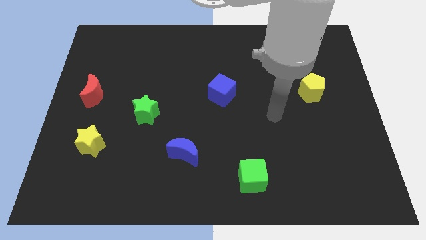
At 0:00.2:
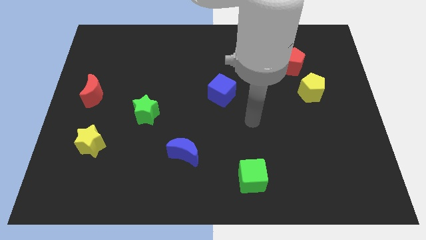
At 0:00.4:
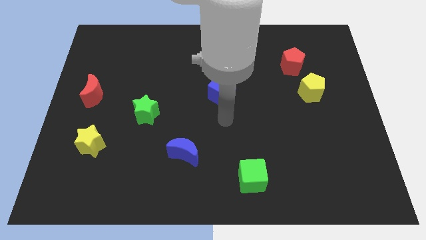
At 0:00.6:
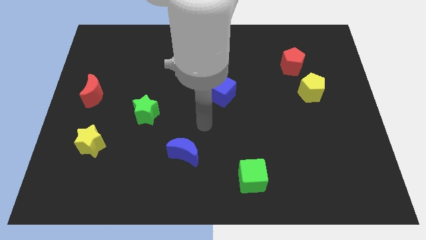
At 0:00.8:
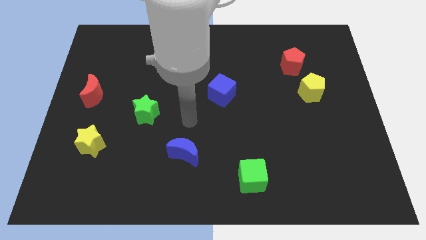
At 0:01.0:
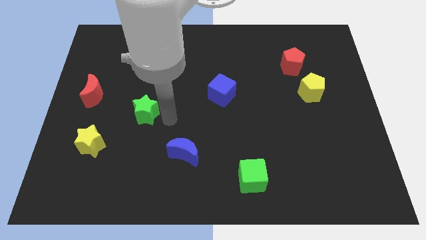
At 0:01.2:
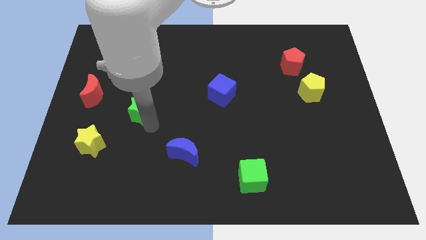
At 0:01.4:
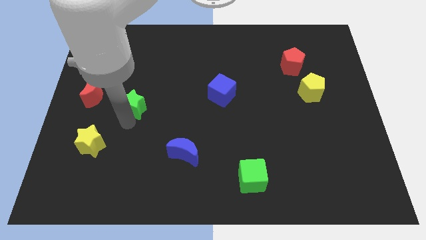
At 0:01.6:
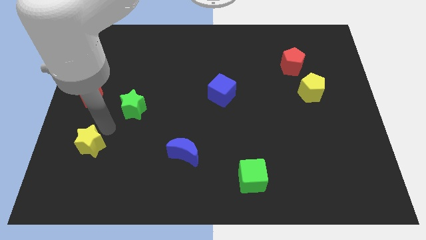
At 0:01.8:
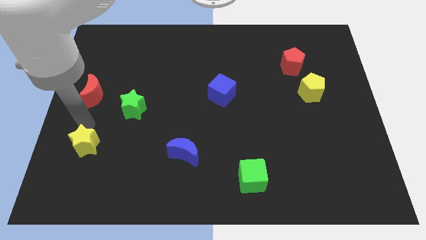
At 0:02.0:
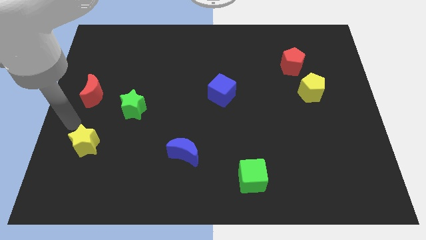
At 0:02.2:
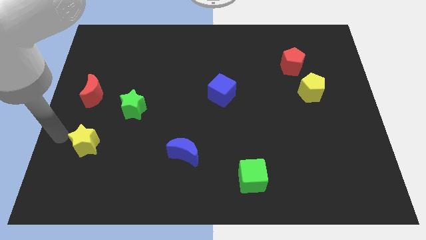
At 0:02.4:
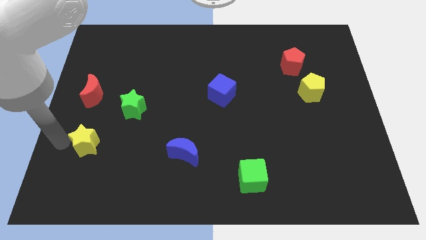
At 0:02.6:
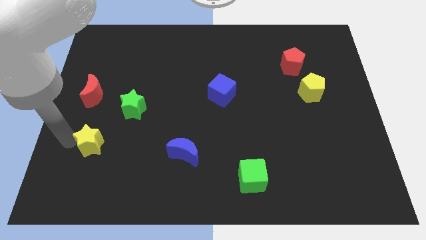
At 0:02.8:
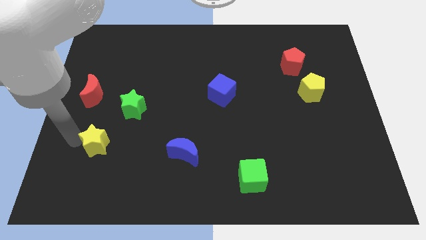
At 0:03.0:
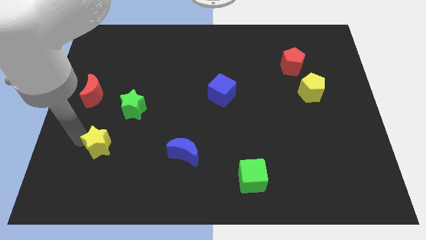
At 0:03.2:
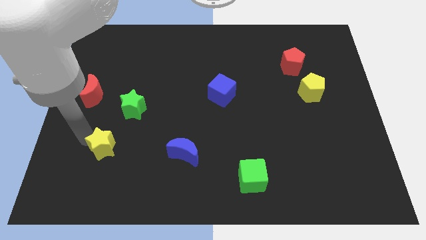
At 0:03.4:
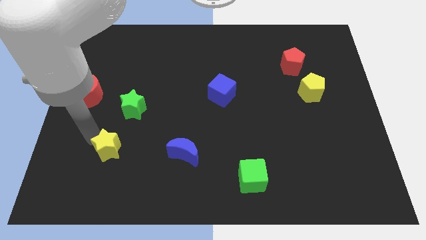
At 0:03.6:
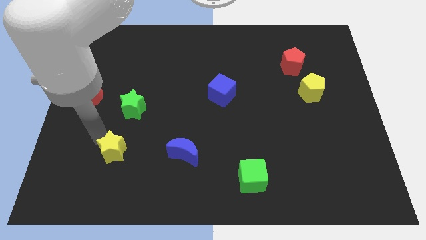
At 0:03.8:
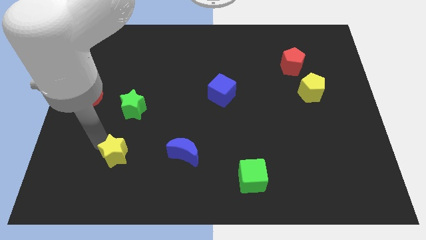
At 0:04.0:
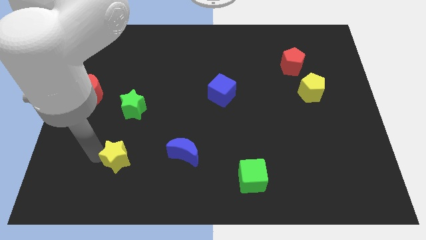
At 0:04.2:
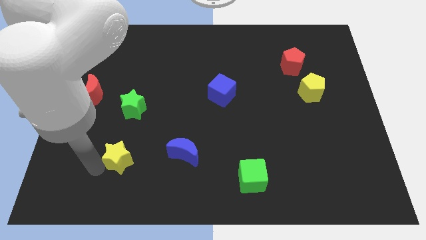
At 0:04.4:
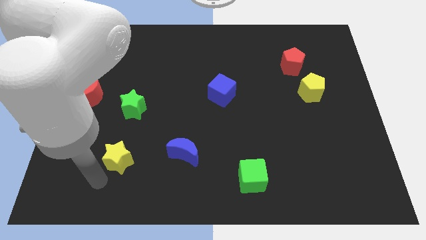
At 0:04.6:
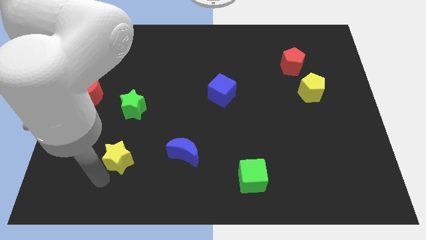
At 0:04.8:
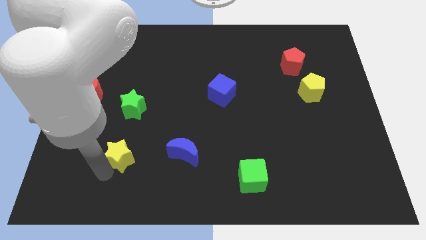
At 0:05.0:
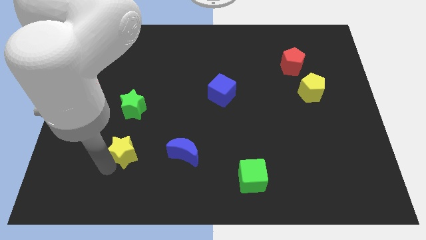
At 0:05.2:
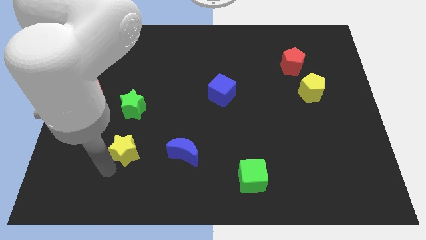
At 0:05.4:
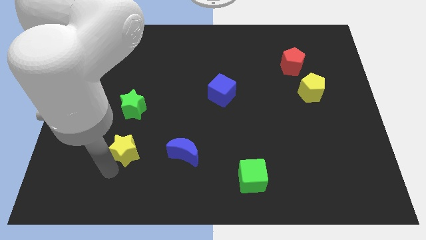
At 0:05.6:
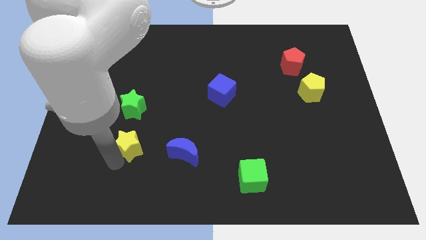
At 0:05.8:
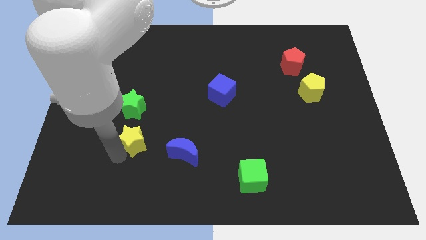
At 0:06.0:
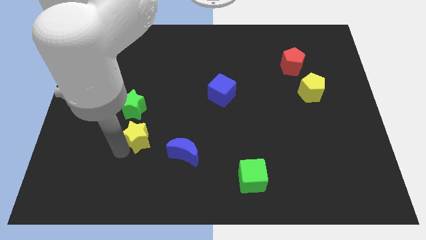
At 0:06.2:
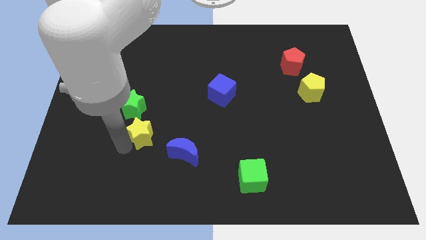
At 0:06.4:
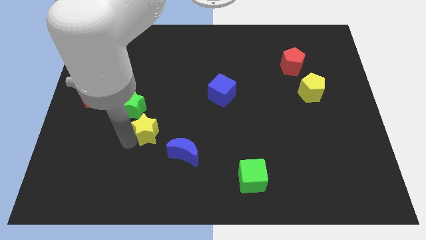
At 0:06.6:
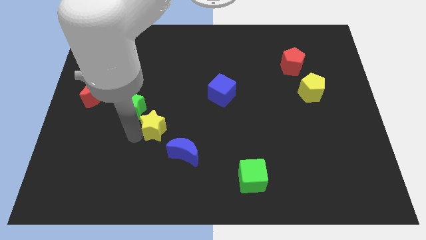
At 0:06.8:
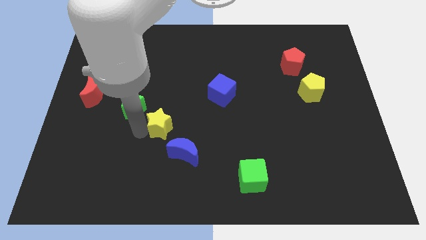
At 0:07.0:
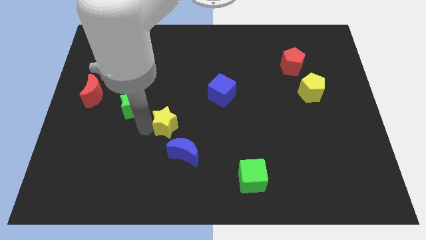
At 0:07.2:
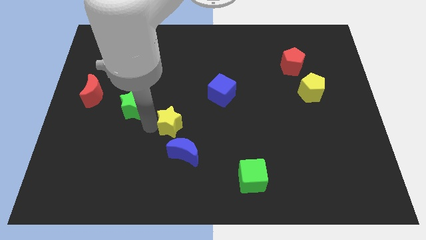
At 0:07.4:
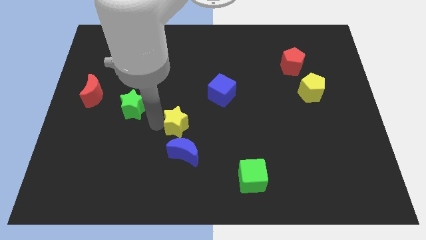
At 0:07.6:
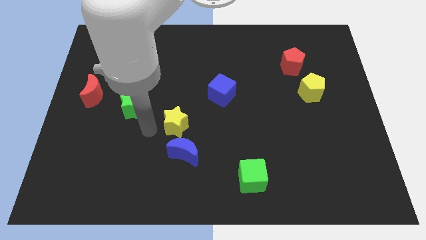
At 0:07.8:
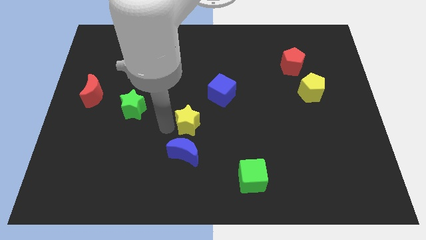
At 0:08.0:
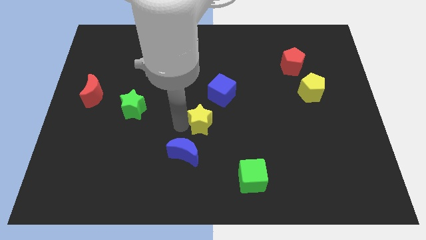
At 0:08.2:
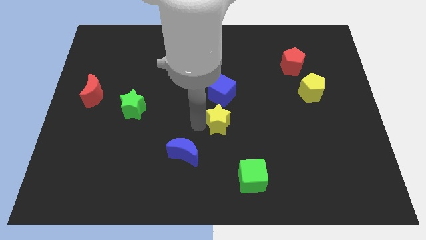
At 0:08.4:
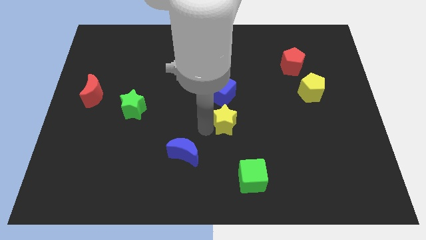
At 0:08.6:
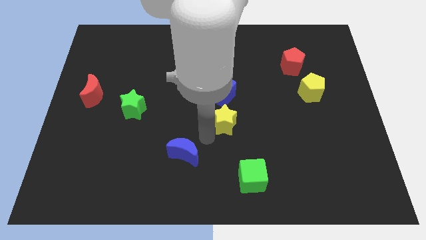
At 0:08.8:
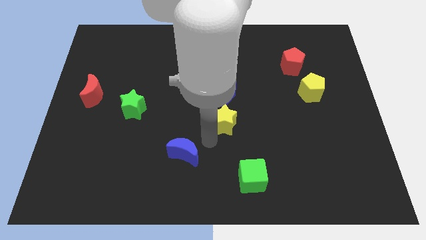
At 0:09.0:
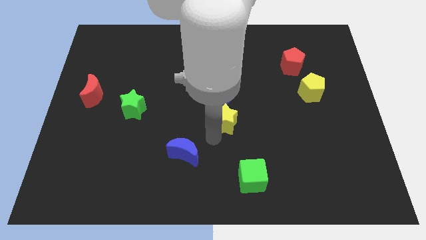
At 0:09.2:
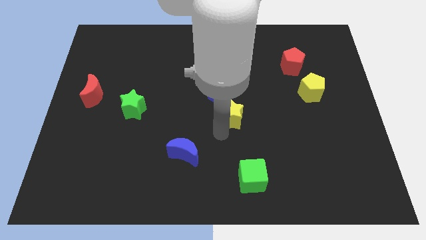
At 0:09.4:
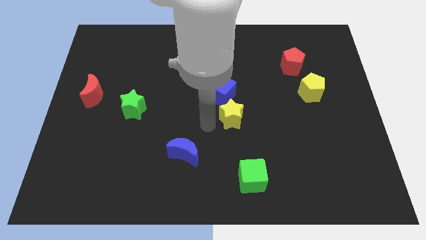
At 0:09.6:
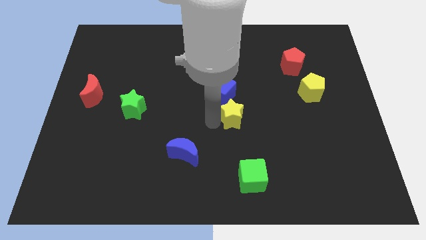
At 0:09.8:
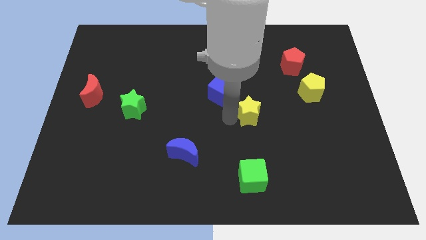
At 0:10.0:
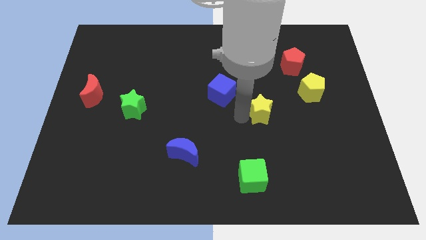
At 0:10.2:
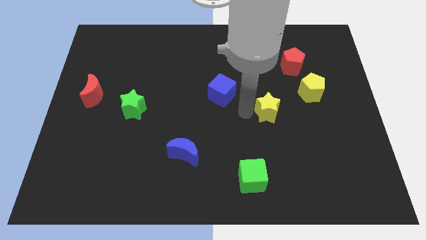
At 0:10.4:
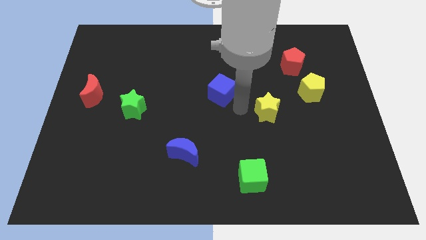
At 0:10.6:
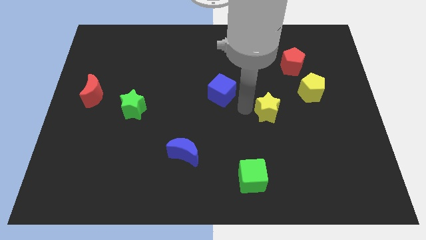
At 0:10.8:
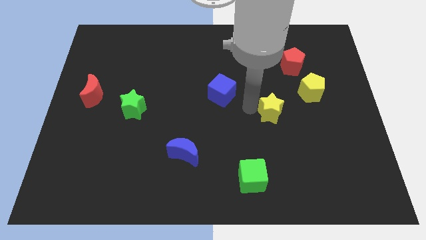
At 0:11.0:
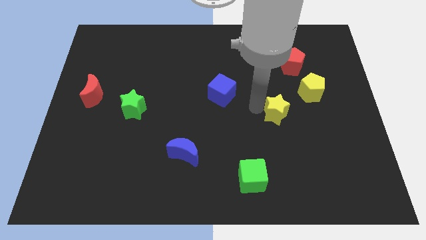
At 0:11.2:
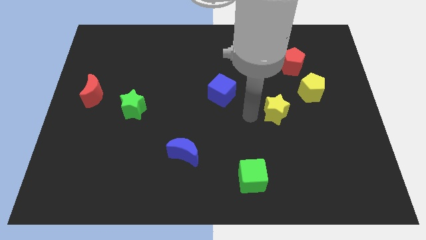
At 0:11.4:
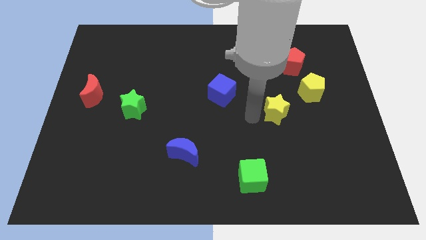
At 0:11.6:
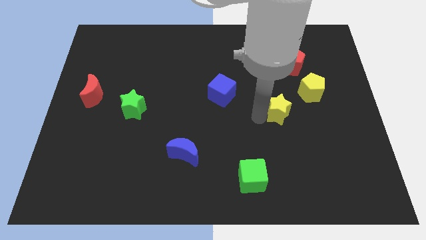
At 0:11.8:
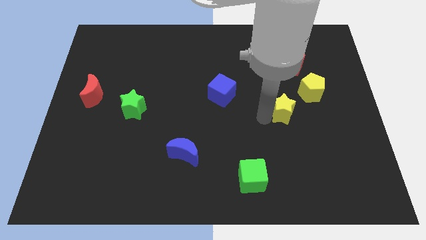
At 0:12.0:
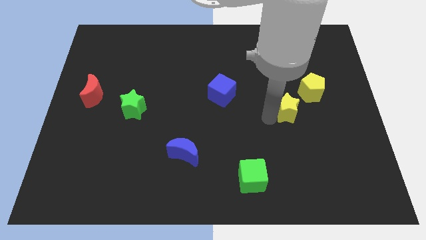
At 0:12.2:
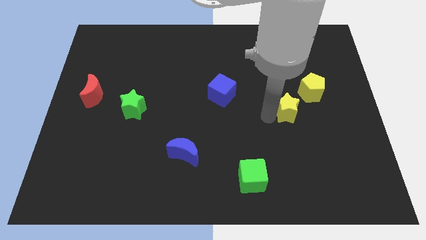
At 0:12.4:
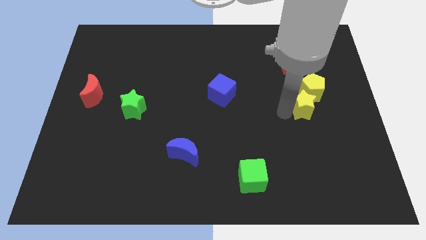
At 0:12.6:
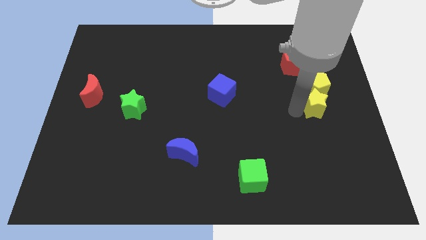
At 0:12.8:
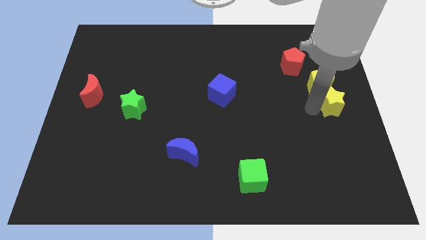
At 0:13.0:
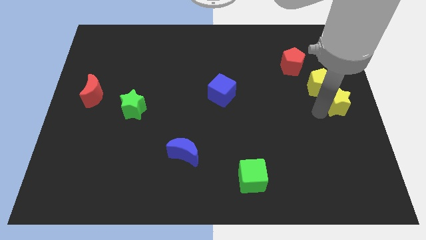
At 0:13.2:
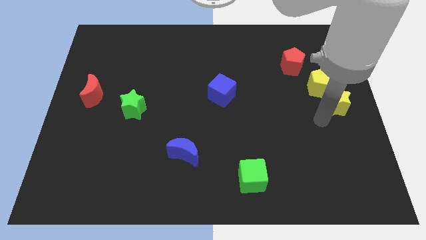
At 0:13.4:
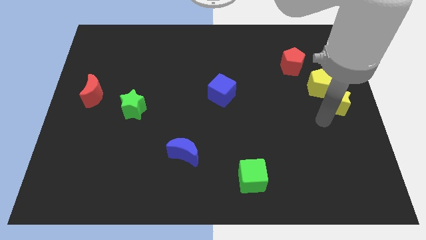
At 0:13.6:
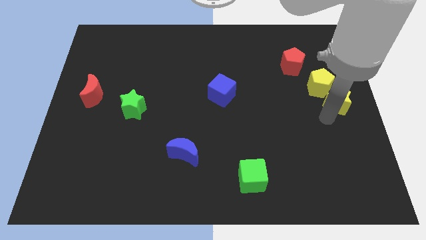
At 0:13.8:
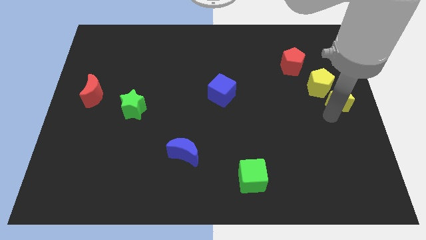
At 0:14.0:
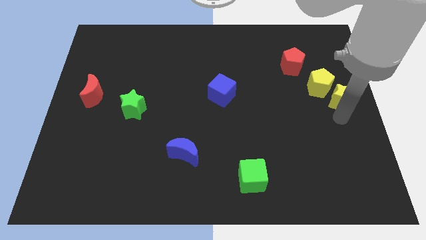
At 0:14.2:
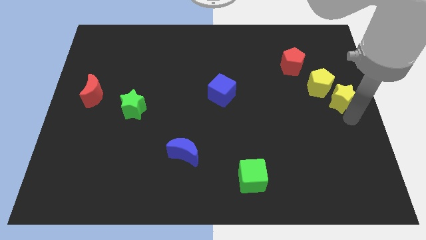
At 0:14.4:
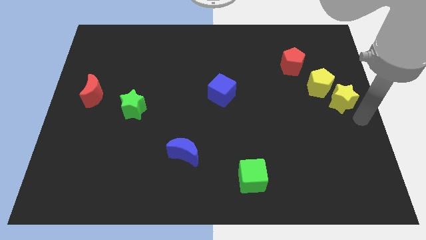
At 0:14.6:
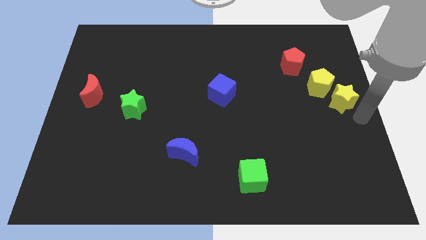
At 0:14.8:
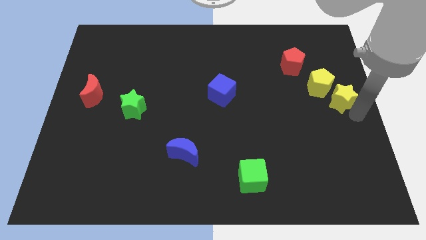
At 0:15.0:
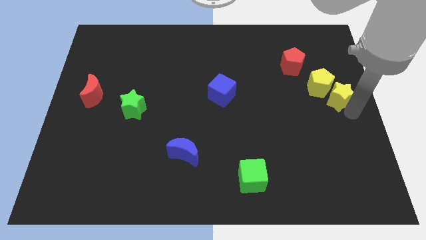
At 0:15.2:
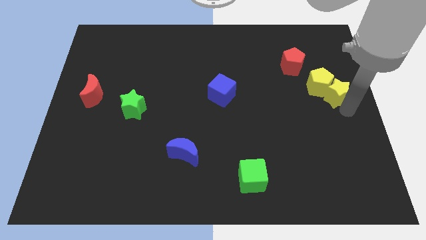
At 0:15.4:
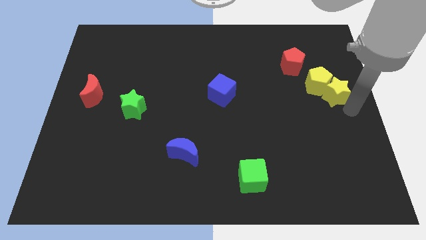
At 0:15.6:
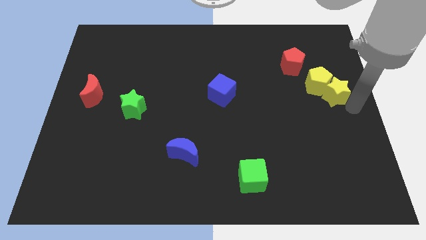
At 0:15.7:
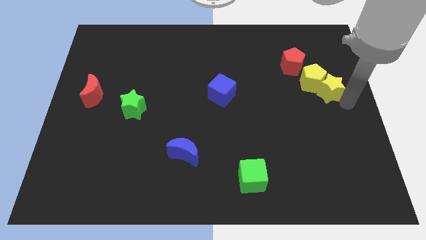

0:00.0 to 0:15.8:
move the yellow star to the bottom right of the red pentagon
